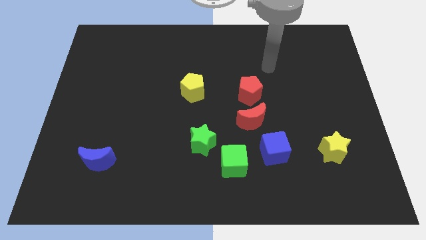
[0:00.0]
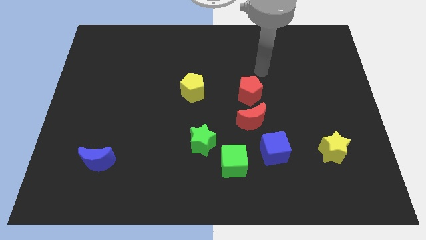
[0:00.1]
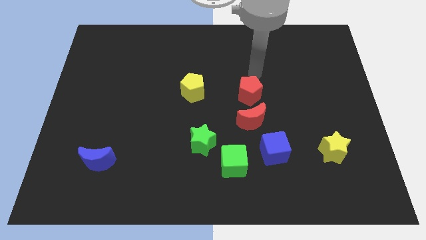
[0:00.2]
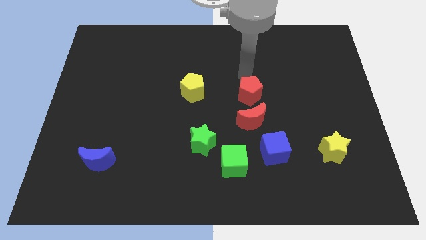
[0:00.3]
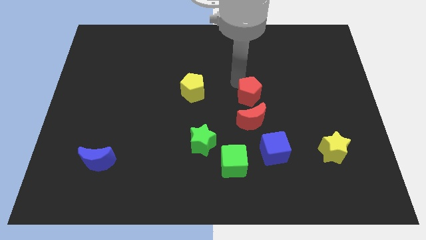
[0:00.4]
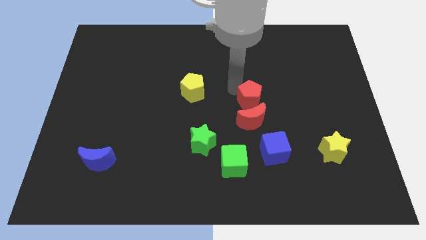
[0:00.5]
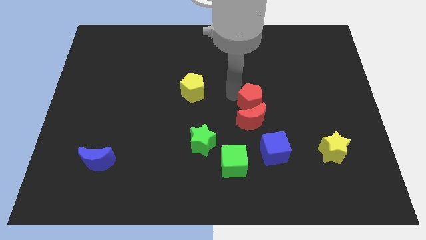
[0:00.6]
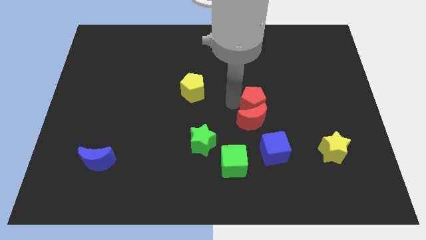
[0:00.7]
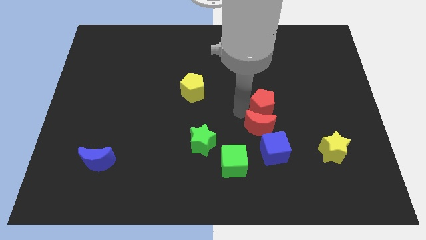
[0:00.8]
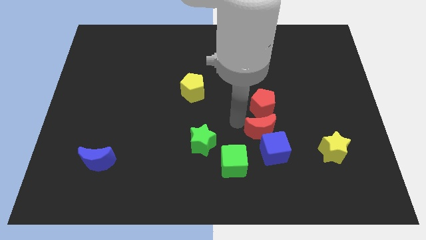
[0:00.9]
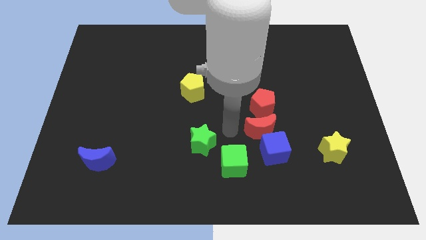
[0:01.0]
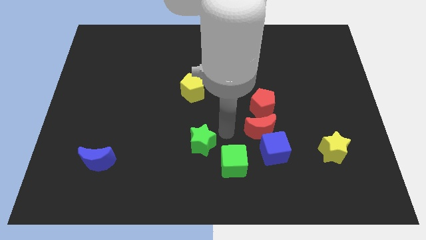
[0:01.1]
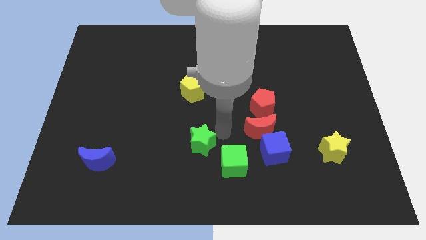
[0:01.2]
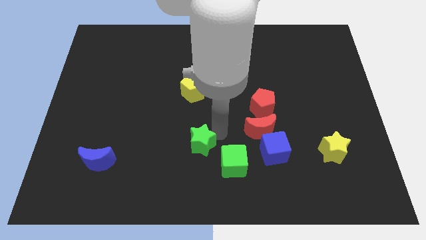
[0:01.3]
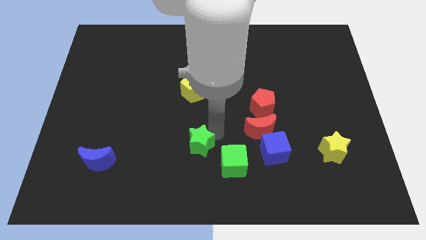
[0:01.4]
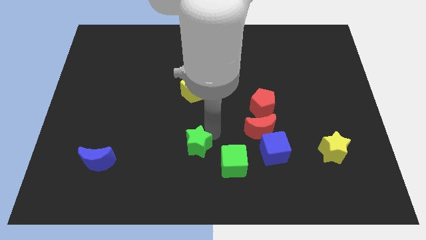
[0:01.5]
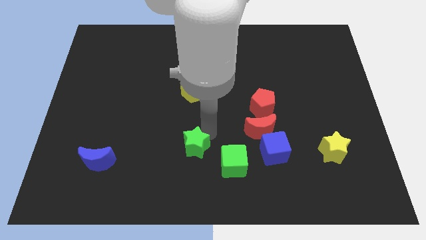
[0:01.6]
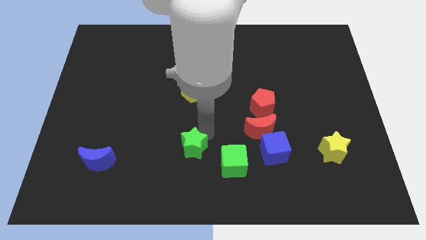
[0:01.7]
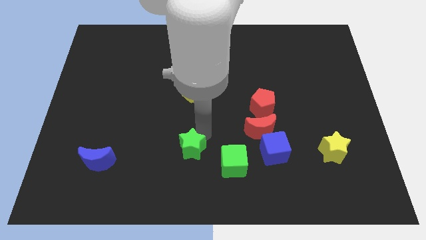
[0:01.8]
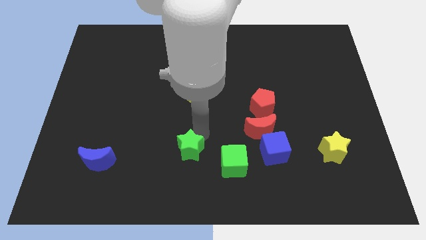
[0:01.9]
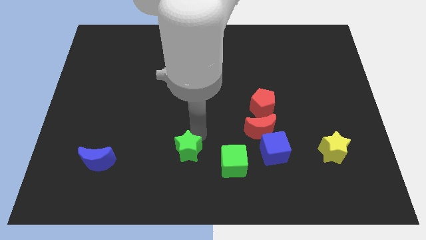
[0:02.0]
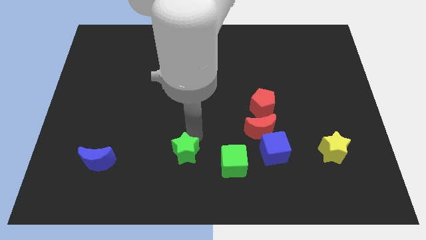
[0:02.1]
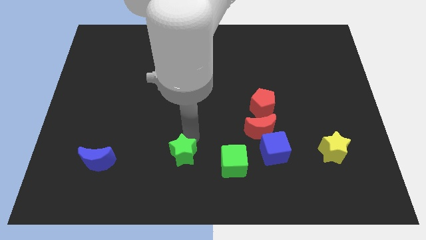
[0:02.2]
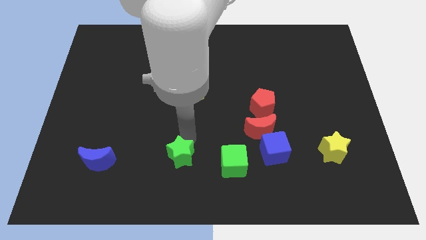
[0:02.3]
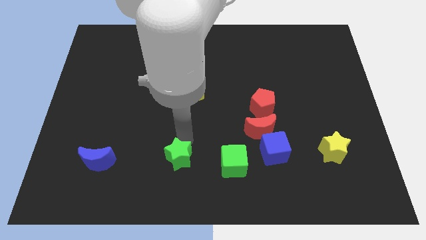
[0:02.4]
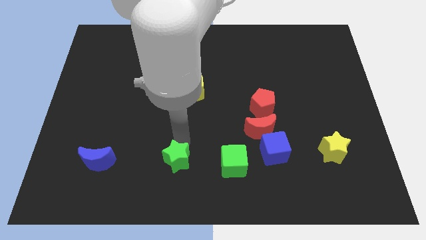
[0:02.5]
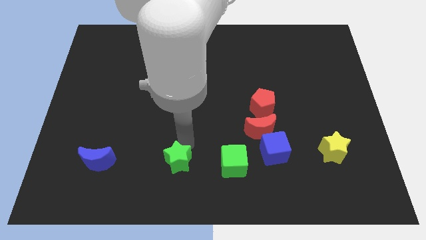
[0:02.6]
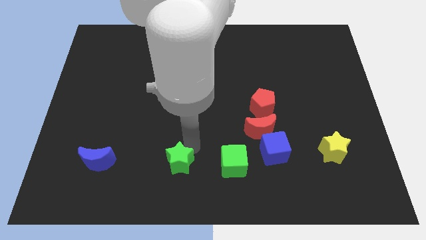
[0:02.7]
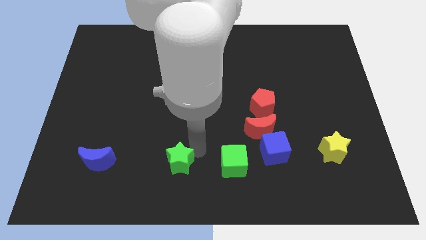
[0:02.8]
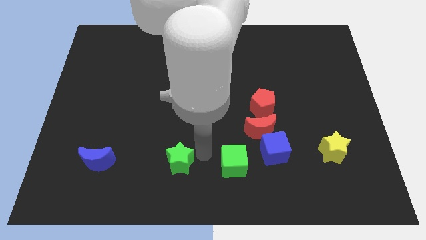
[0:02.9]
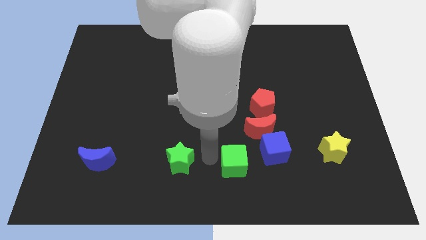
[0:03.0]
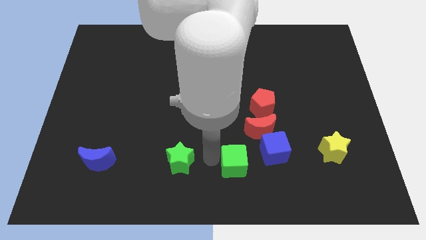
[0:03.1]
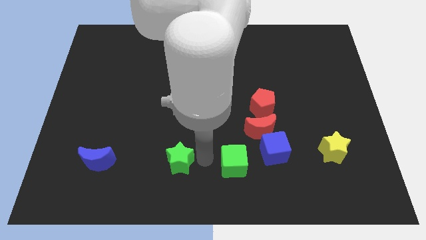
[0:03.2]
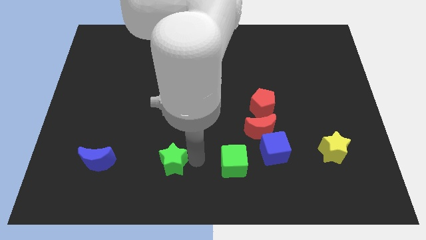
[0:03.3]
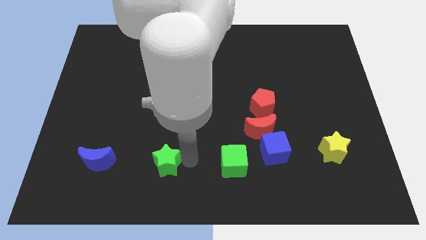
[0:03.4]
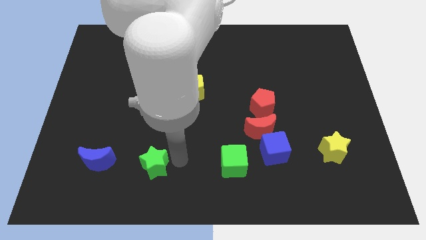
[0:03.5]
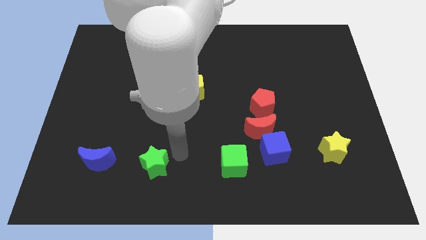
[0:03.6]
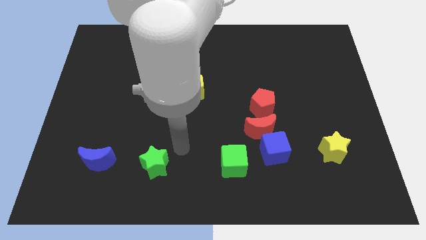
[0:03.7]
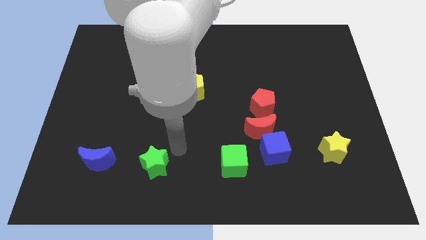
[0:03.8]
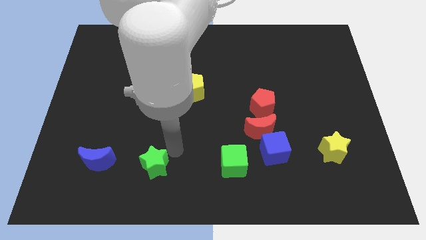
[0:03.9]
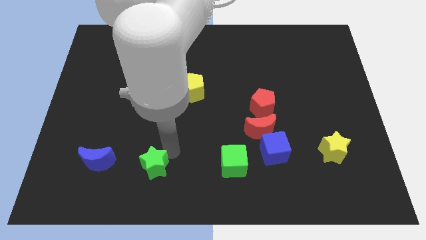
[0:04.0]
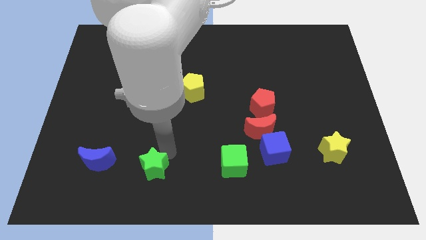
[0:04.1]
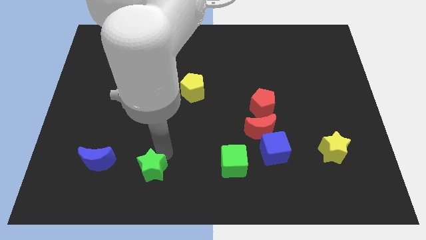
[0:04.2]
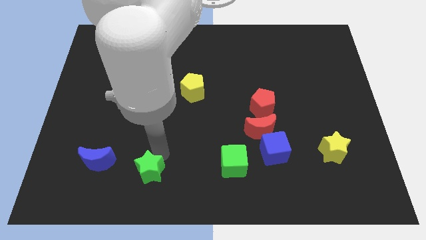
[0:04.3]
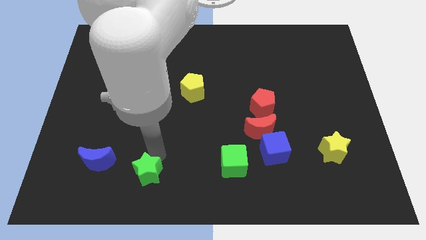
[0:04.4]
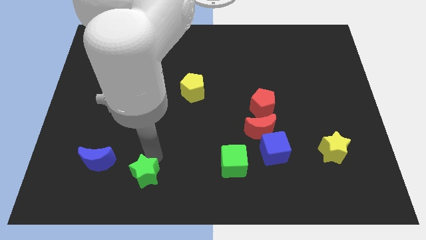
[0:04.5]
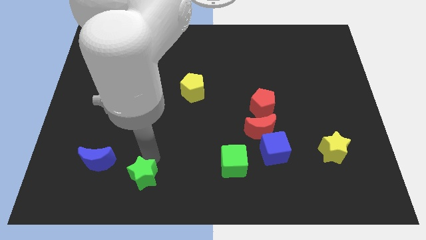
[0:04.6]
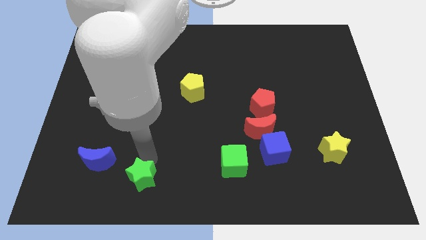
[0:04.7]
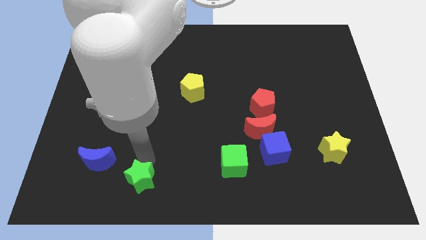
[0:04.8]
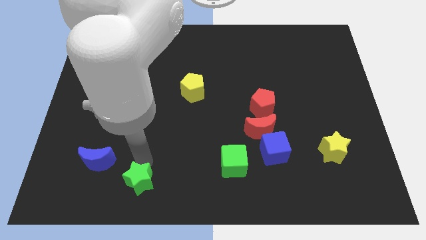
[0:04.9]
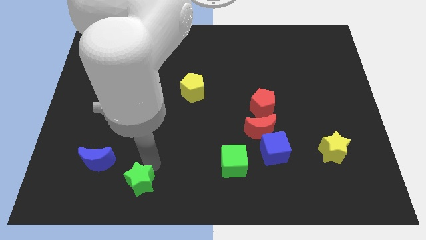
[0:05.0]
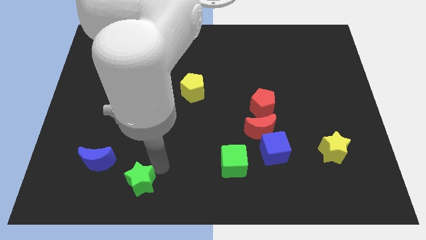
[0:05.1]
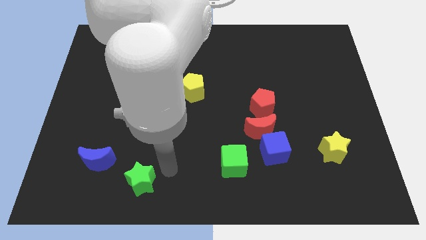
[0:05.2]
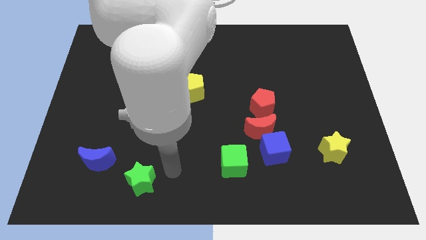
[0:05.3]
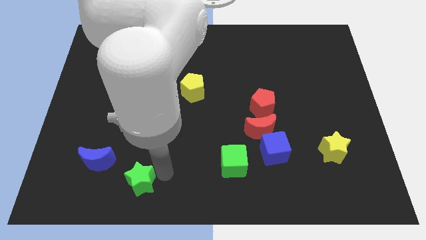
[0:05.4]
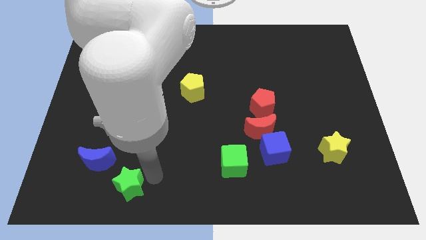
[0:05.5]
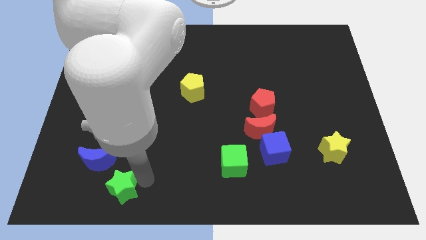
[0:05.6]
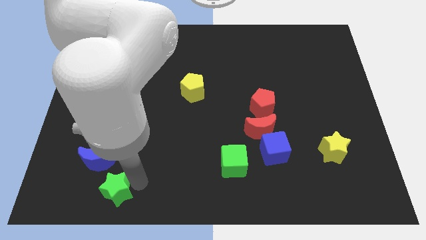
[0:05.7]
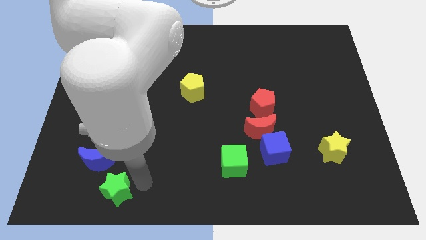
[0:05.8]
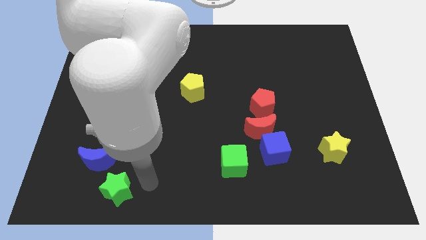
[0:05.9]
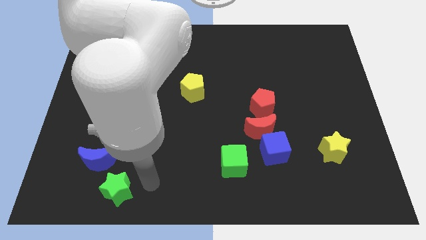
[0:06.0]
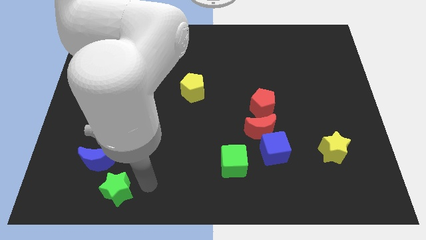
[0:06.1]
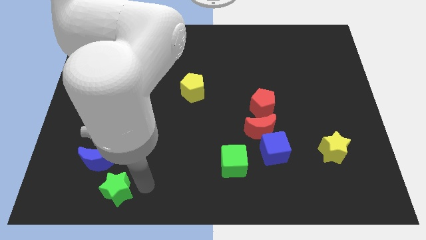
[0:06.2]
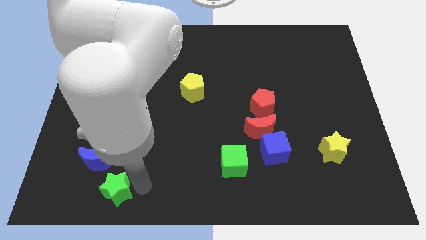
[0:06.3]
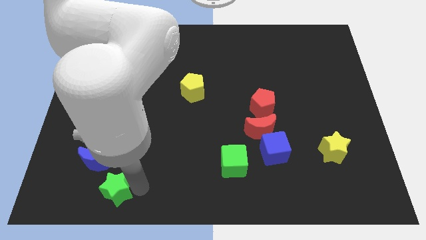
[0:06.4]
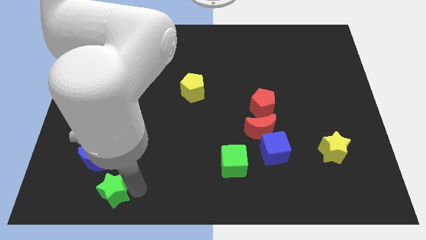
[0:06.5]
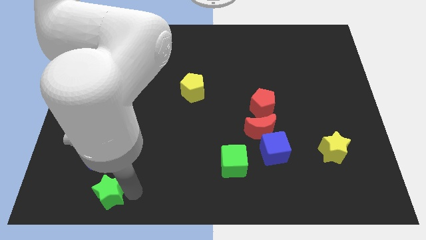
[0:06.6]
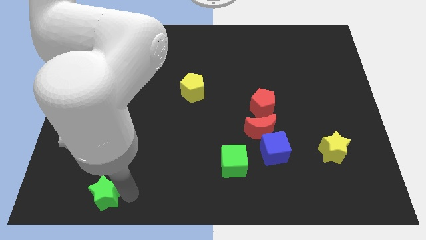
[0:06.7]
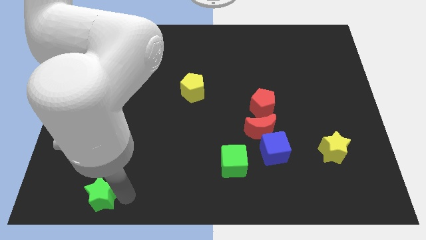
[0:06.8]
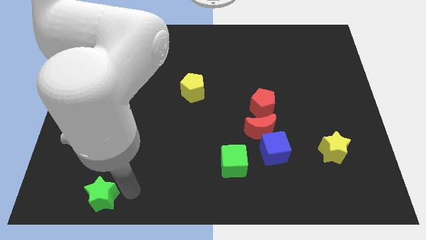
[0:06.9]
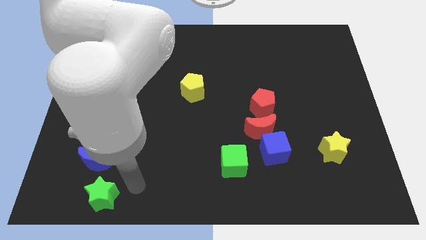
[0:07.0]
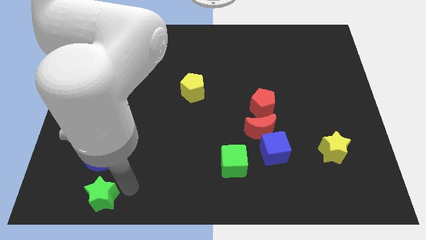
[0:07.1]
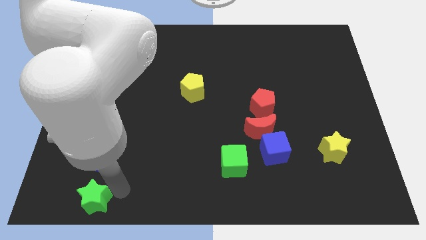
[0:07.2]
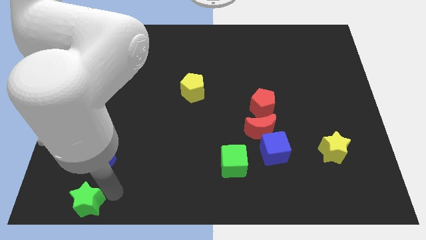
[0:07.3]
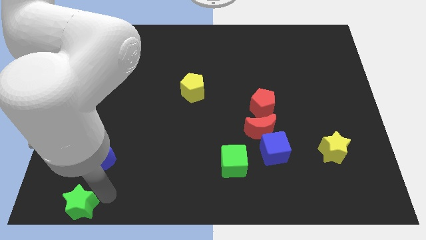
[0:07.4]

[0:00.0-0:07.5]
put the green star to the lower left corner

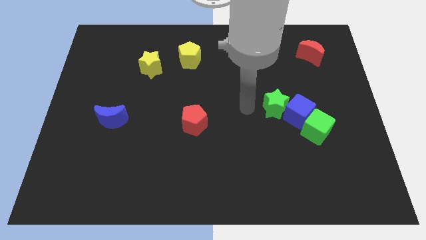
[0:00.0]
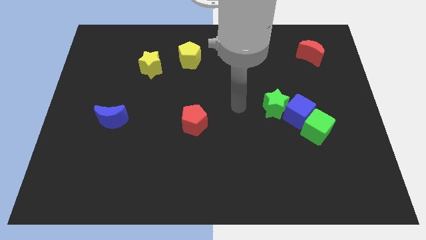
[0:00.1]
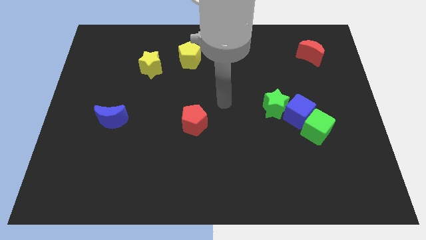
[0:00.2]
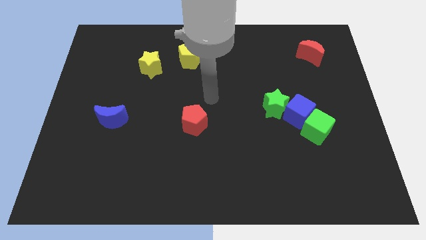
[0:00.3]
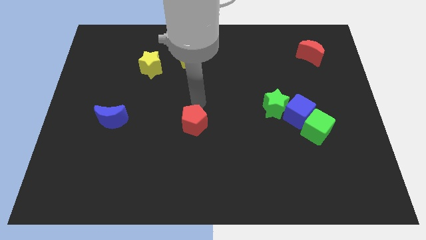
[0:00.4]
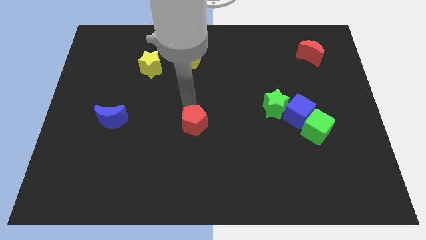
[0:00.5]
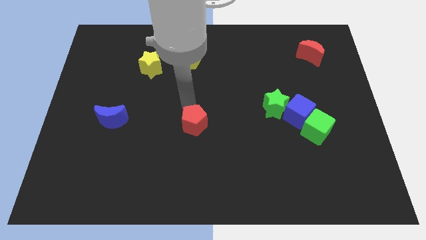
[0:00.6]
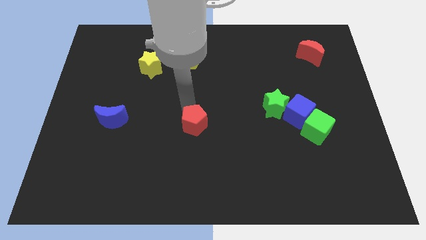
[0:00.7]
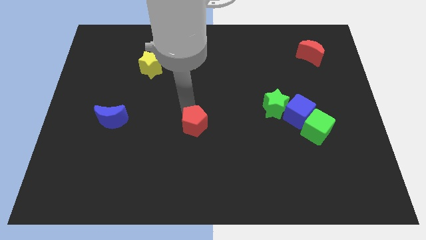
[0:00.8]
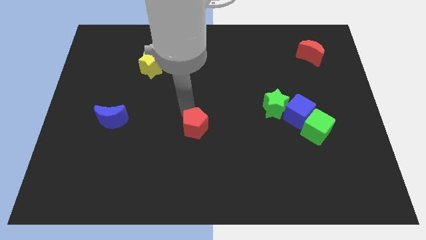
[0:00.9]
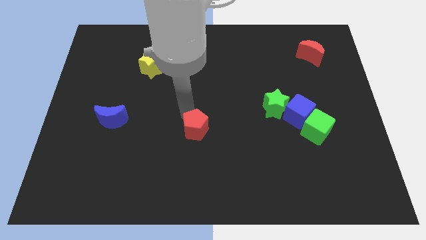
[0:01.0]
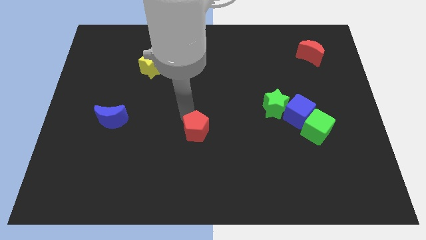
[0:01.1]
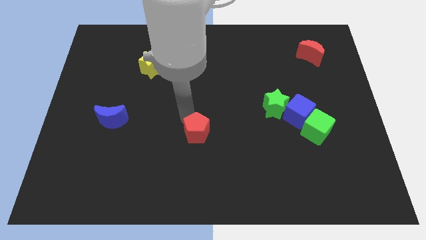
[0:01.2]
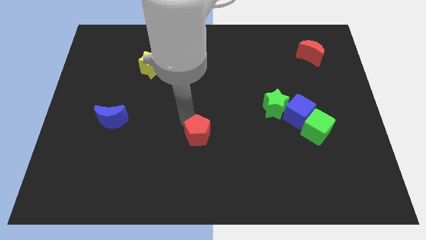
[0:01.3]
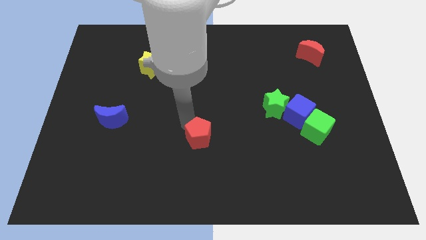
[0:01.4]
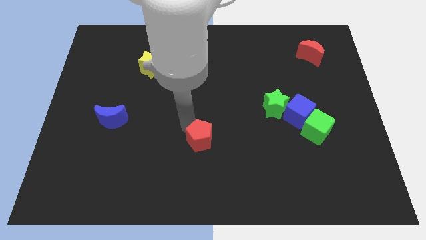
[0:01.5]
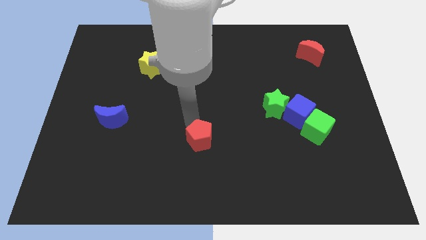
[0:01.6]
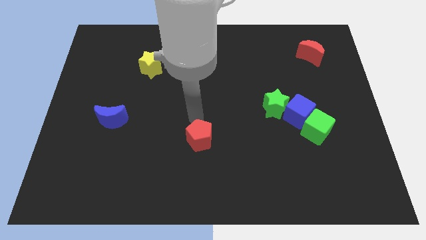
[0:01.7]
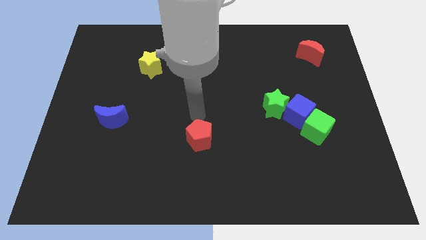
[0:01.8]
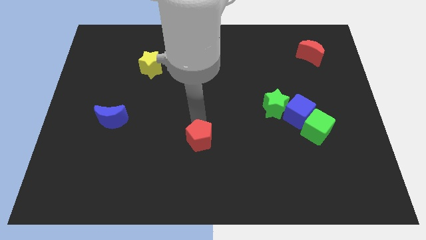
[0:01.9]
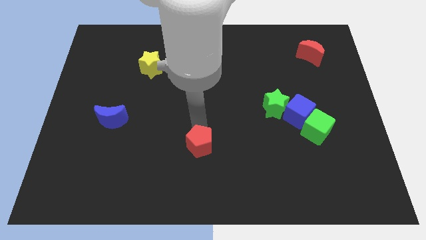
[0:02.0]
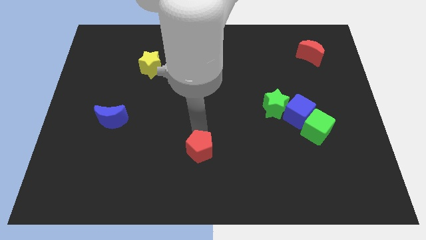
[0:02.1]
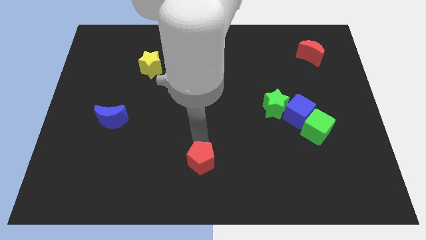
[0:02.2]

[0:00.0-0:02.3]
push the red pentagon to the bottom side
